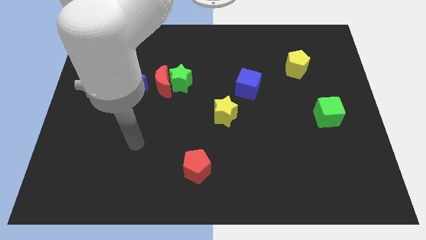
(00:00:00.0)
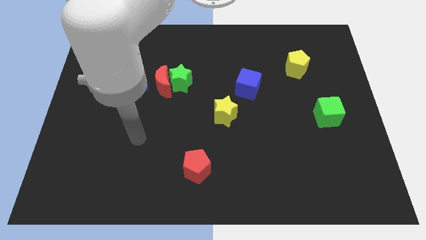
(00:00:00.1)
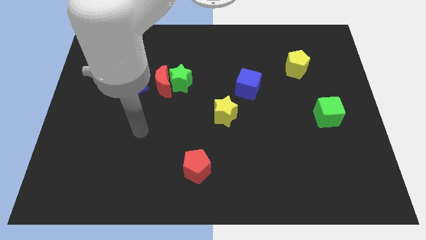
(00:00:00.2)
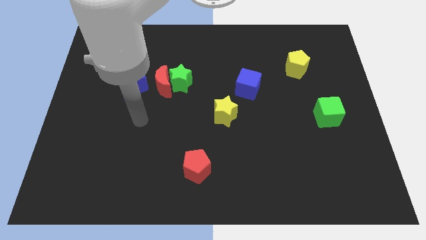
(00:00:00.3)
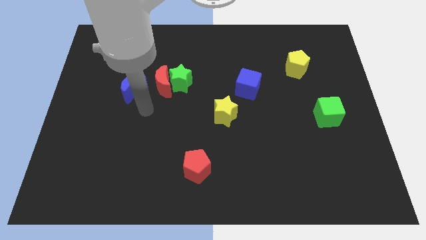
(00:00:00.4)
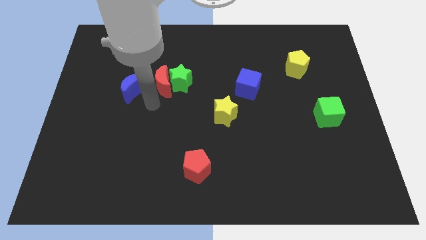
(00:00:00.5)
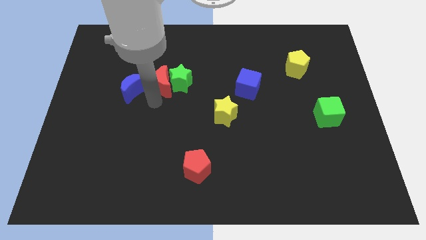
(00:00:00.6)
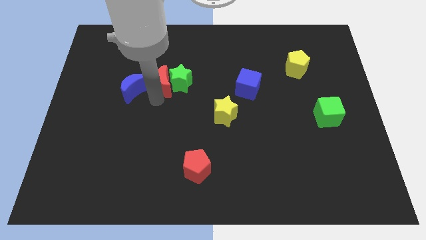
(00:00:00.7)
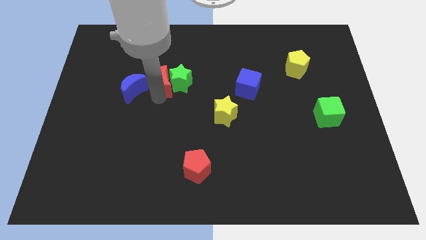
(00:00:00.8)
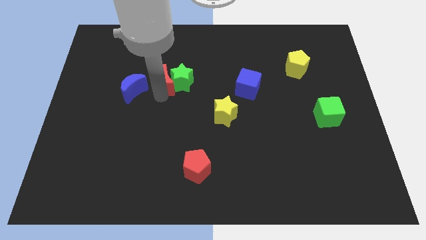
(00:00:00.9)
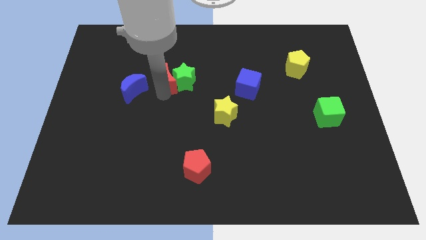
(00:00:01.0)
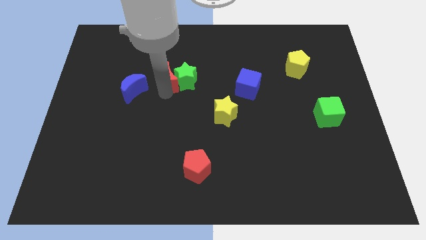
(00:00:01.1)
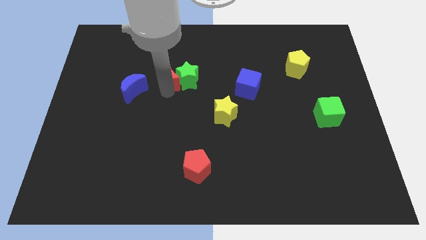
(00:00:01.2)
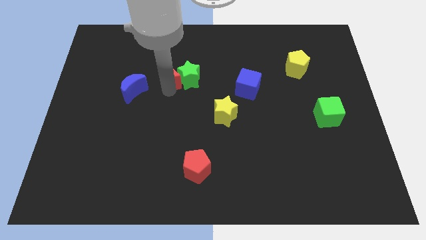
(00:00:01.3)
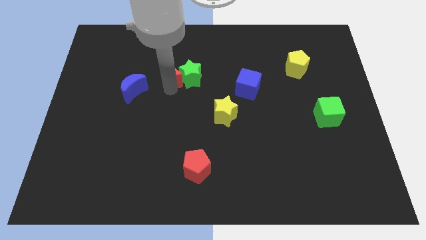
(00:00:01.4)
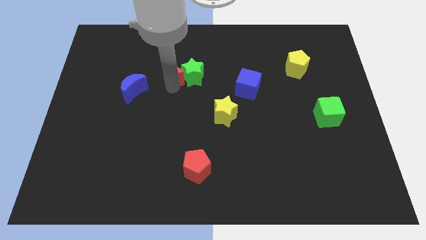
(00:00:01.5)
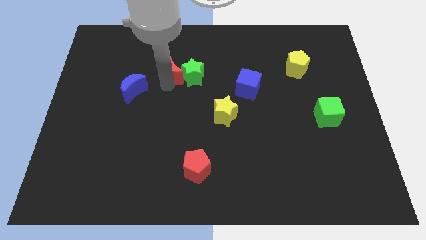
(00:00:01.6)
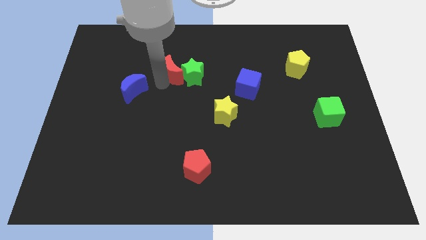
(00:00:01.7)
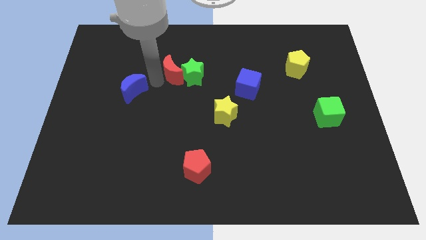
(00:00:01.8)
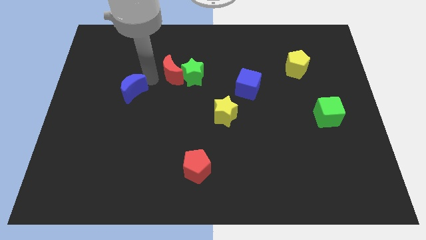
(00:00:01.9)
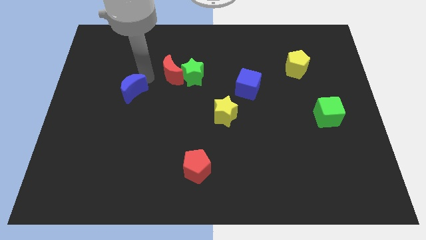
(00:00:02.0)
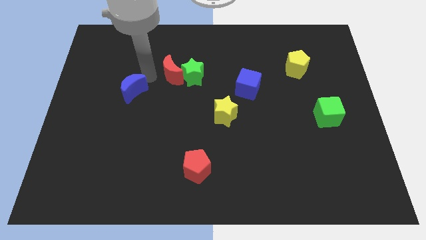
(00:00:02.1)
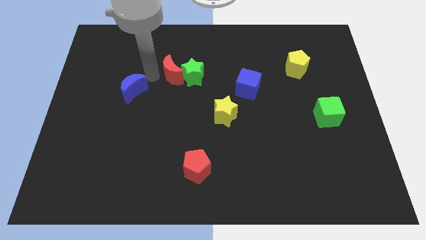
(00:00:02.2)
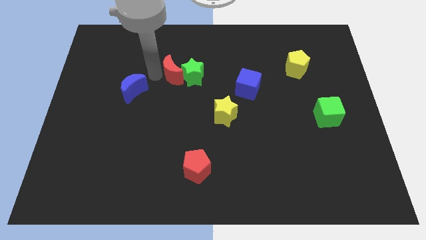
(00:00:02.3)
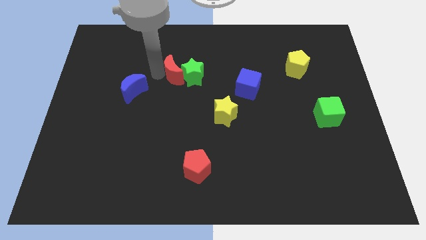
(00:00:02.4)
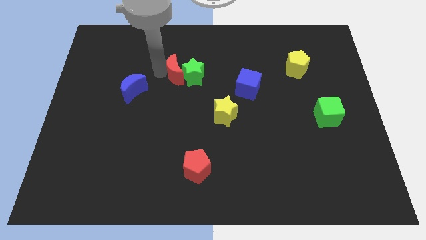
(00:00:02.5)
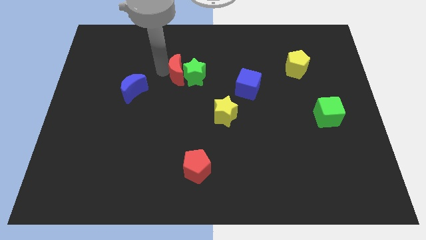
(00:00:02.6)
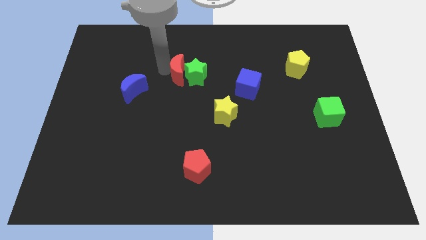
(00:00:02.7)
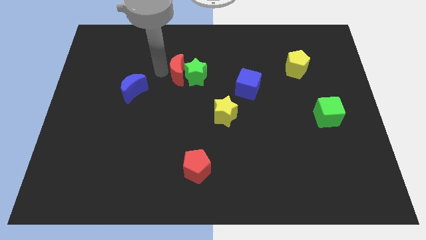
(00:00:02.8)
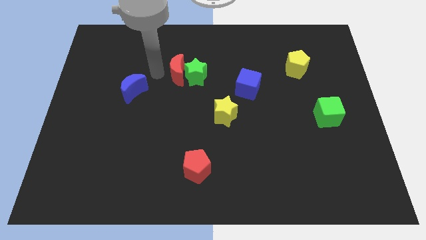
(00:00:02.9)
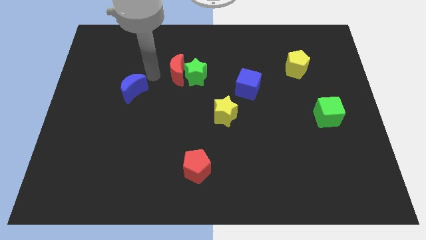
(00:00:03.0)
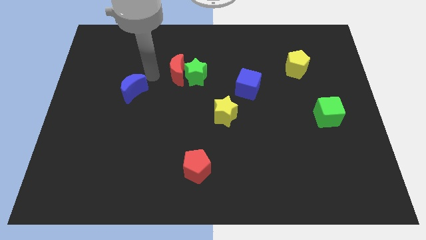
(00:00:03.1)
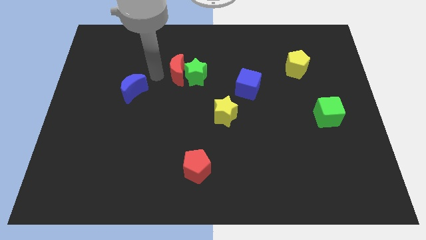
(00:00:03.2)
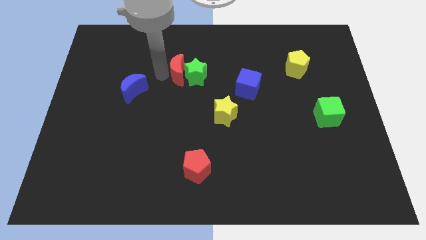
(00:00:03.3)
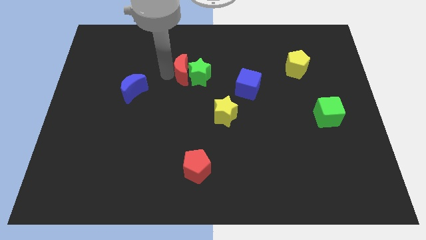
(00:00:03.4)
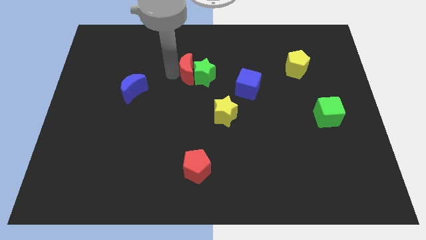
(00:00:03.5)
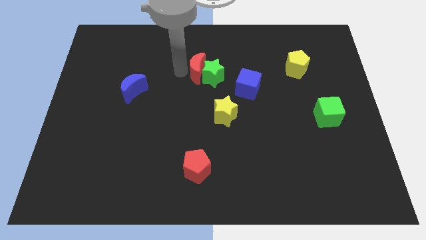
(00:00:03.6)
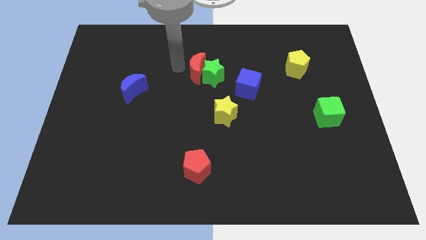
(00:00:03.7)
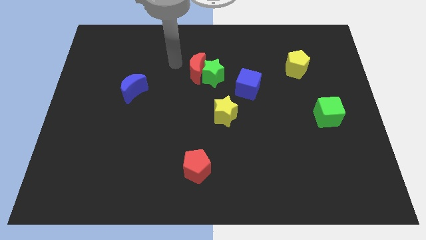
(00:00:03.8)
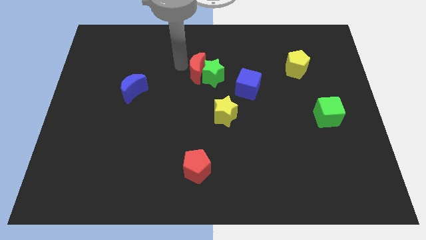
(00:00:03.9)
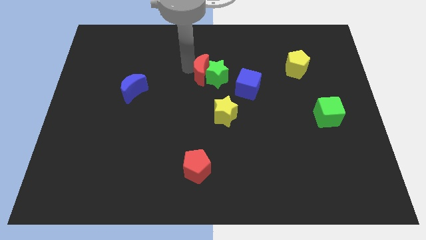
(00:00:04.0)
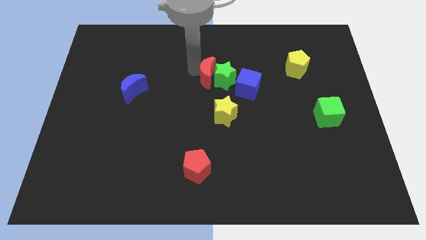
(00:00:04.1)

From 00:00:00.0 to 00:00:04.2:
put the red moon to the top side of the yellow star

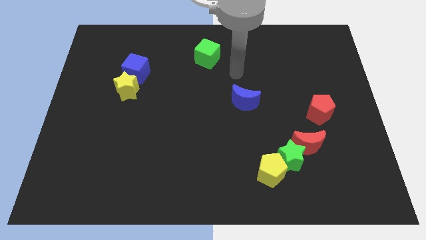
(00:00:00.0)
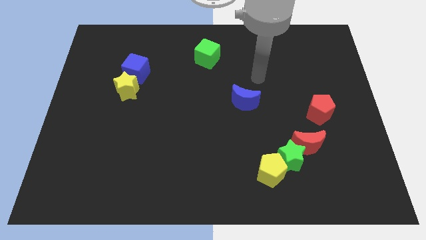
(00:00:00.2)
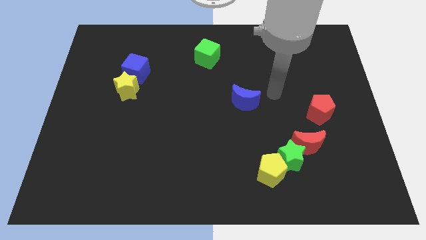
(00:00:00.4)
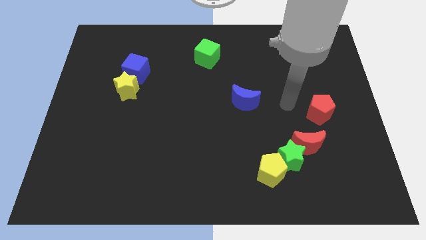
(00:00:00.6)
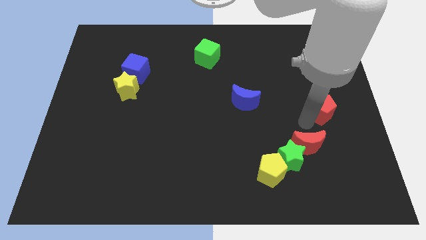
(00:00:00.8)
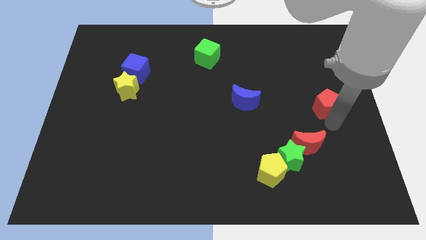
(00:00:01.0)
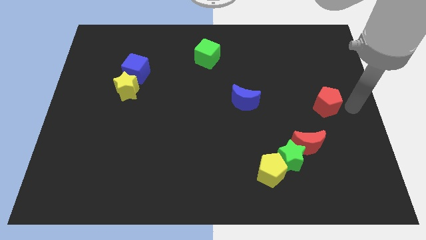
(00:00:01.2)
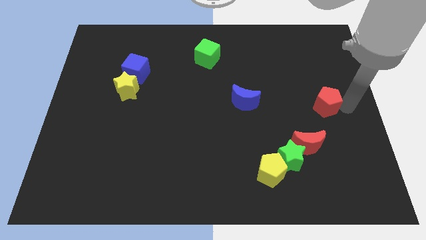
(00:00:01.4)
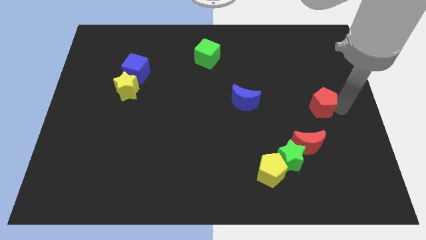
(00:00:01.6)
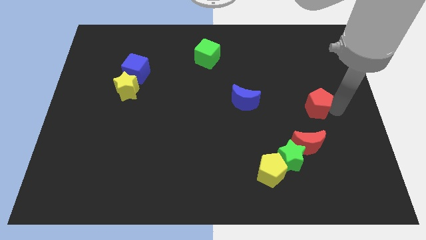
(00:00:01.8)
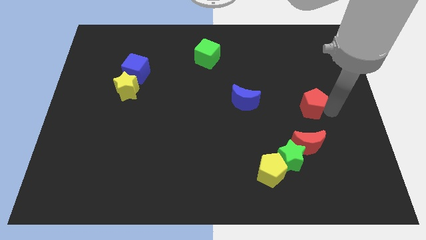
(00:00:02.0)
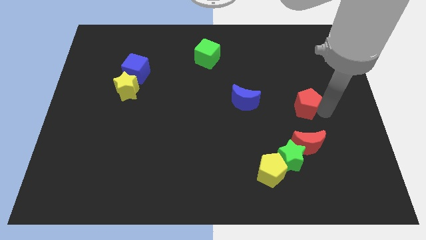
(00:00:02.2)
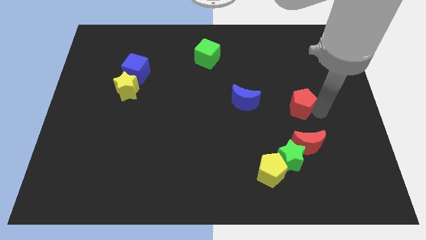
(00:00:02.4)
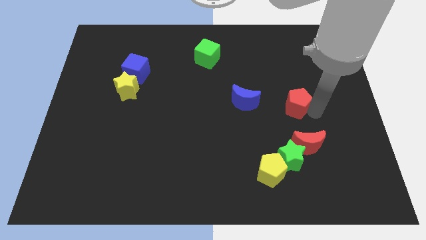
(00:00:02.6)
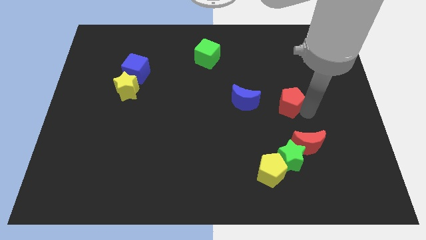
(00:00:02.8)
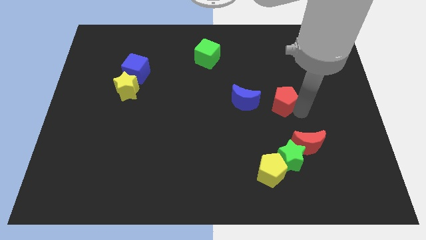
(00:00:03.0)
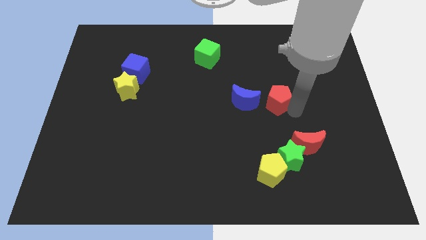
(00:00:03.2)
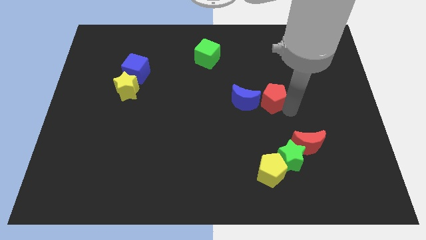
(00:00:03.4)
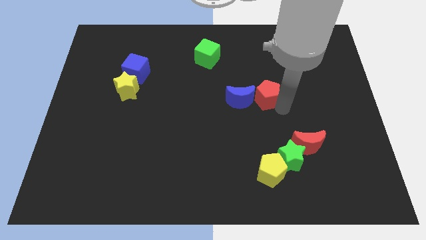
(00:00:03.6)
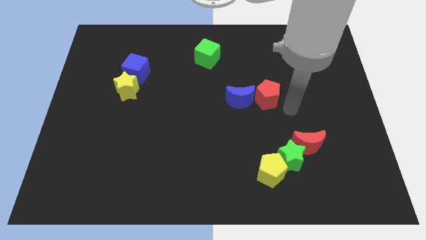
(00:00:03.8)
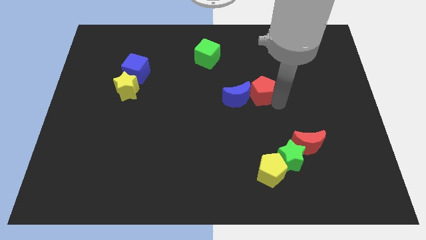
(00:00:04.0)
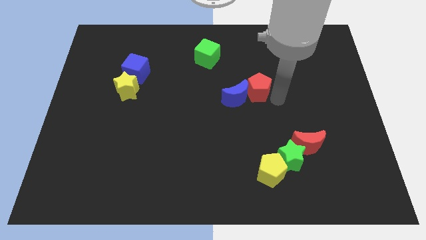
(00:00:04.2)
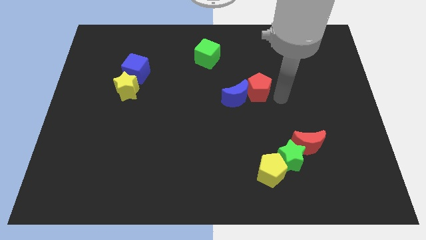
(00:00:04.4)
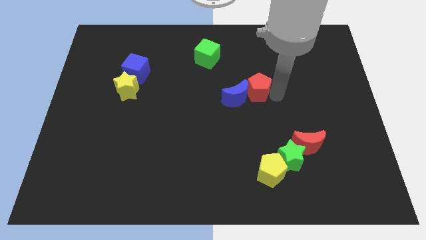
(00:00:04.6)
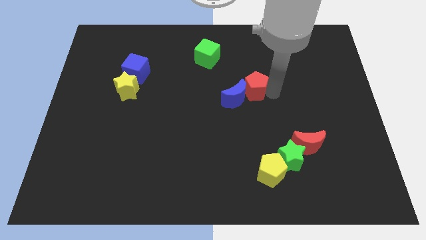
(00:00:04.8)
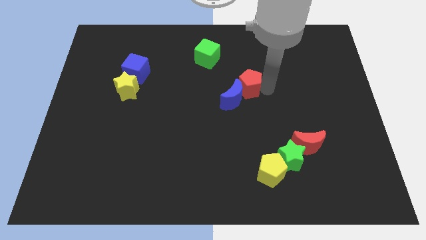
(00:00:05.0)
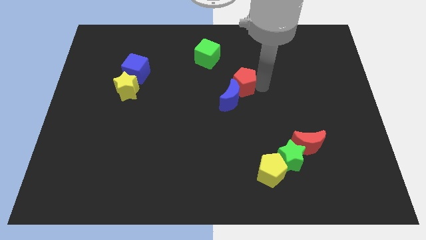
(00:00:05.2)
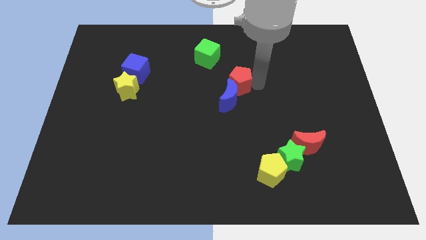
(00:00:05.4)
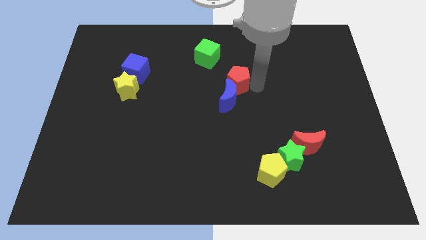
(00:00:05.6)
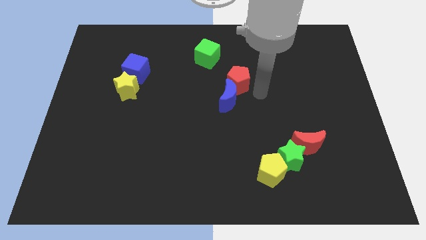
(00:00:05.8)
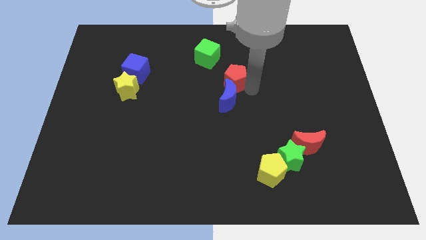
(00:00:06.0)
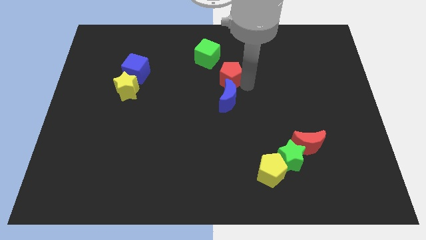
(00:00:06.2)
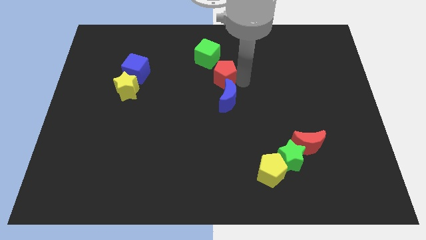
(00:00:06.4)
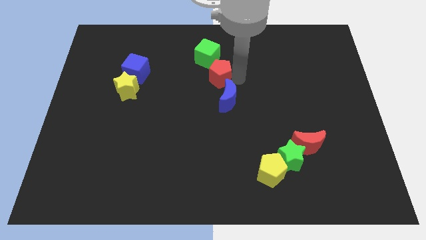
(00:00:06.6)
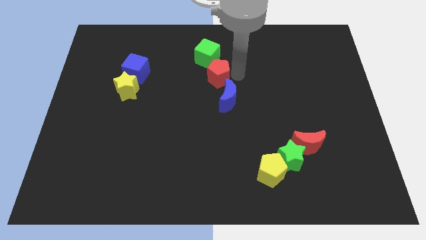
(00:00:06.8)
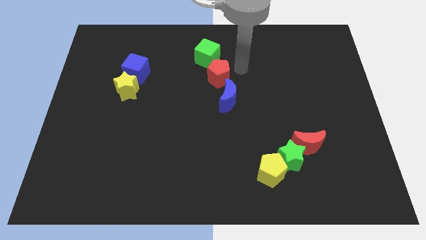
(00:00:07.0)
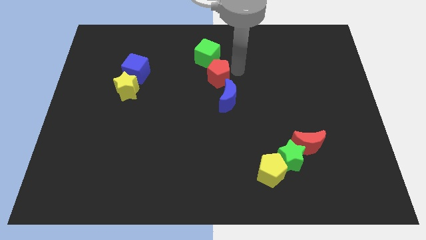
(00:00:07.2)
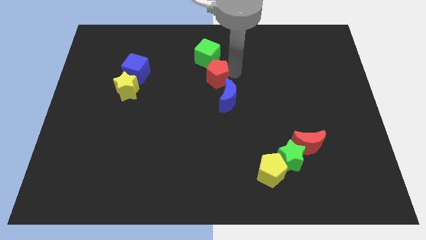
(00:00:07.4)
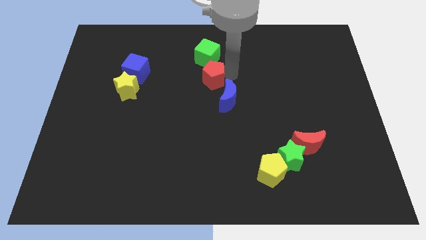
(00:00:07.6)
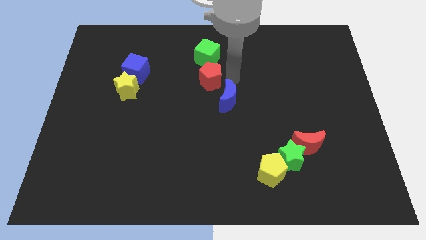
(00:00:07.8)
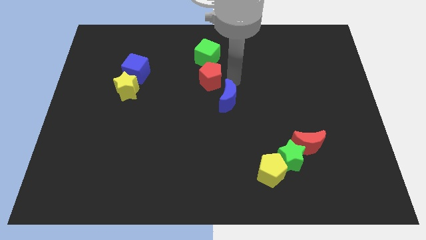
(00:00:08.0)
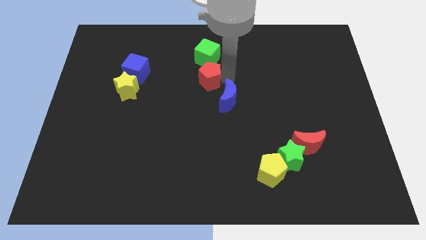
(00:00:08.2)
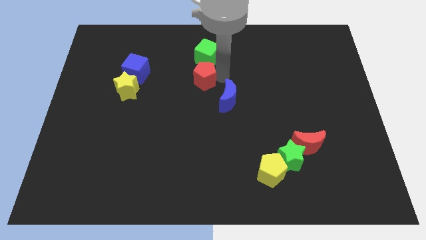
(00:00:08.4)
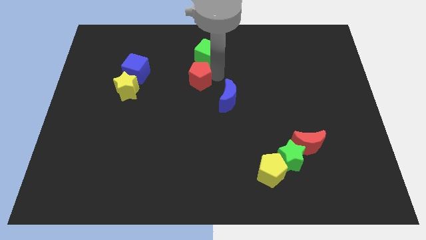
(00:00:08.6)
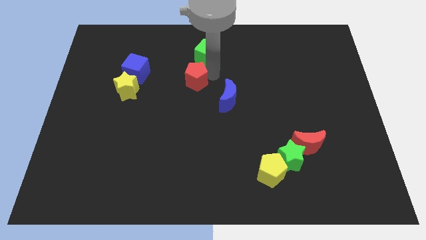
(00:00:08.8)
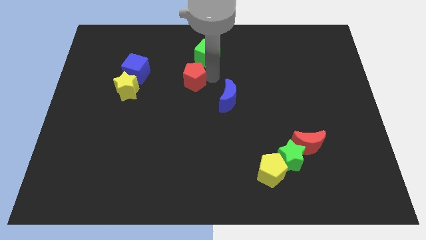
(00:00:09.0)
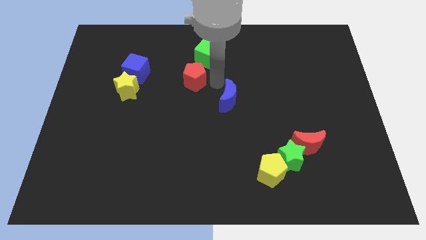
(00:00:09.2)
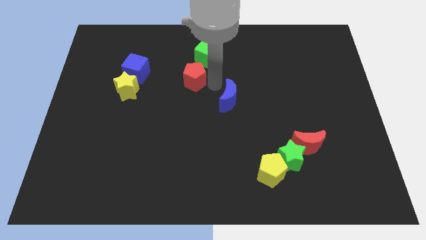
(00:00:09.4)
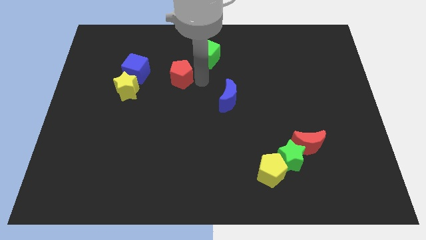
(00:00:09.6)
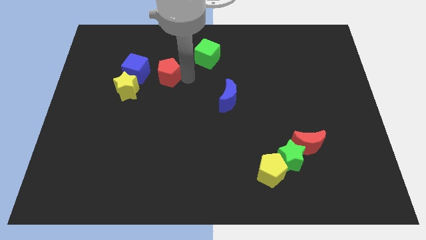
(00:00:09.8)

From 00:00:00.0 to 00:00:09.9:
push the red pentagon to the top right side of the yellow star
